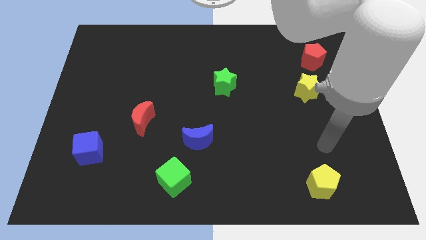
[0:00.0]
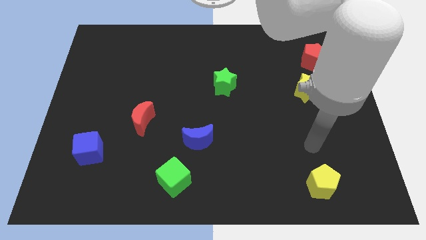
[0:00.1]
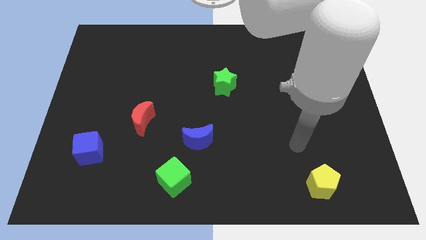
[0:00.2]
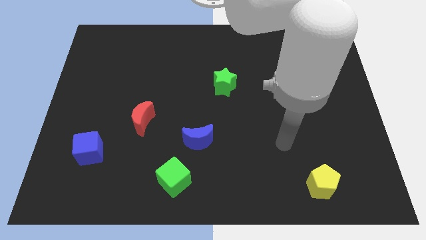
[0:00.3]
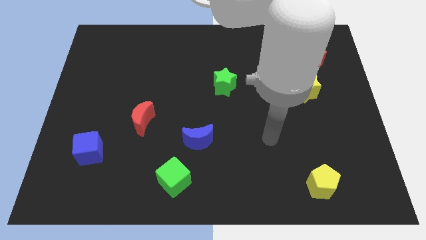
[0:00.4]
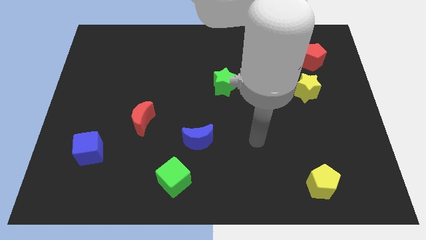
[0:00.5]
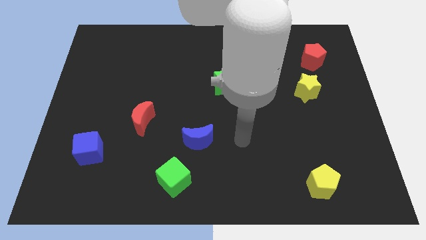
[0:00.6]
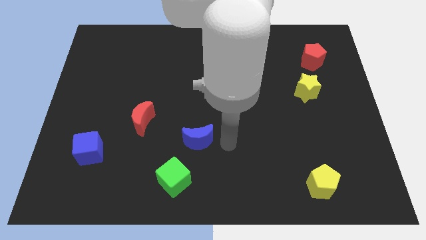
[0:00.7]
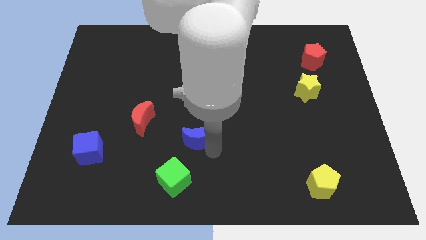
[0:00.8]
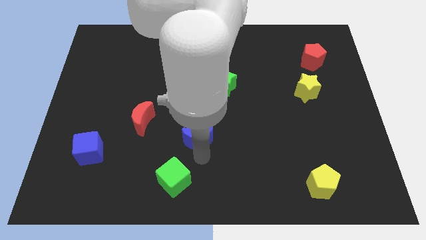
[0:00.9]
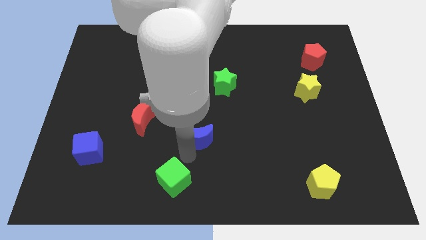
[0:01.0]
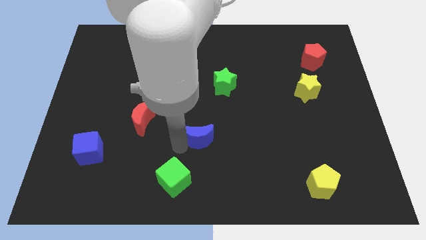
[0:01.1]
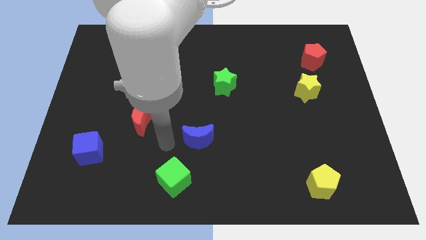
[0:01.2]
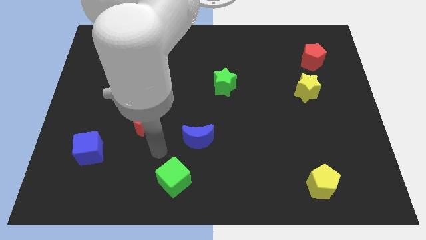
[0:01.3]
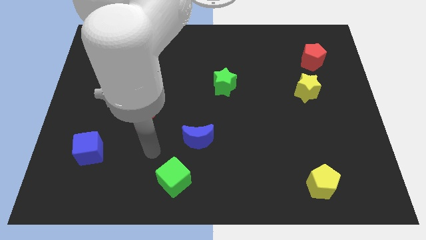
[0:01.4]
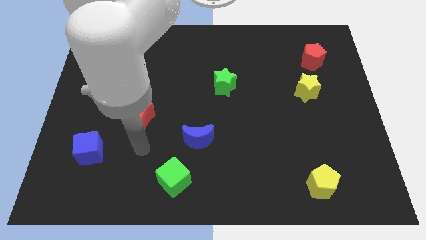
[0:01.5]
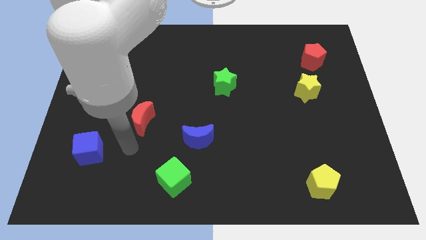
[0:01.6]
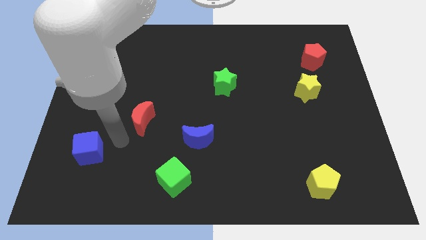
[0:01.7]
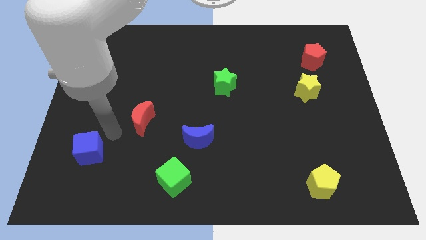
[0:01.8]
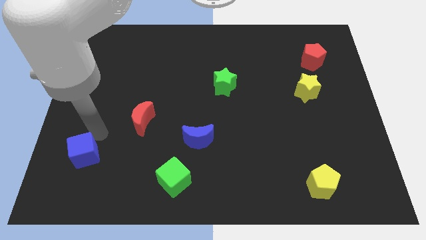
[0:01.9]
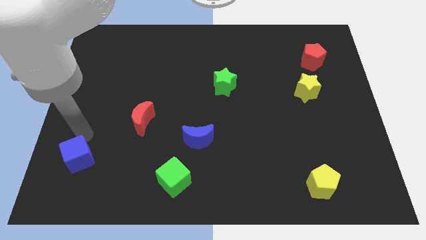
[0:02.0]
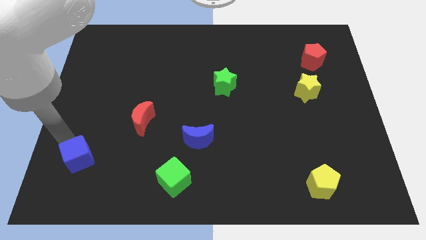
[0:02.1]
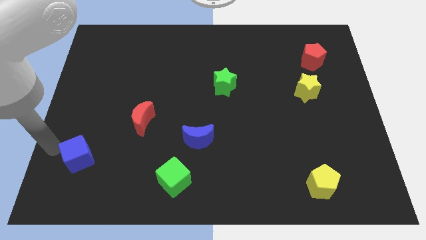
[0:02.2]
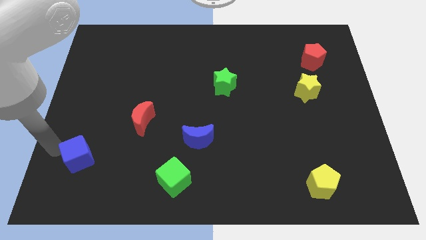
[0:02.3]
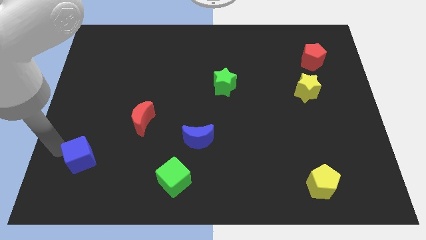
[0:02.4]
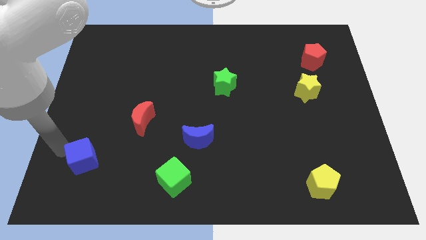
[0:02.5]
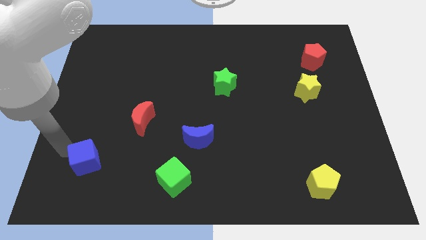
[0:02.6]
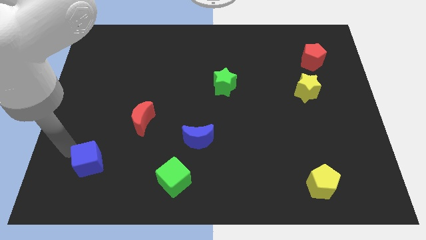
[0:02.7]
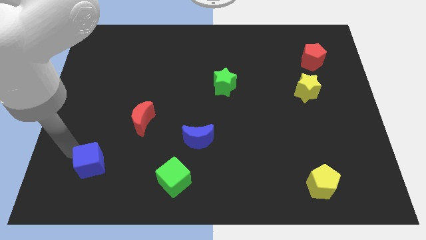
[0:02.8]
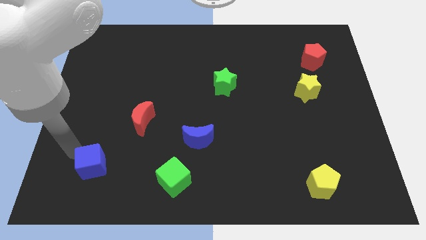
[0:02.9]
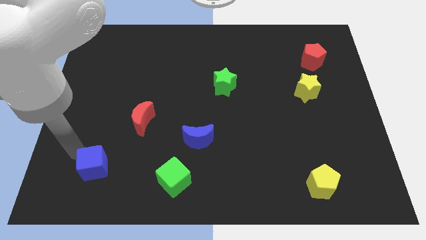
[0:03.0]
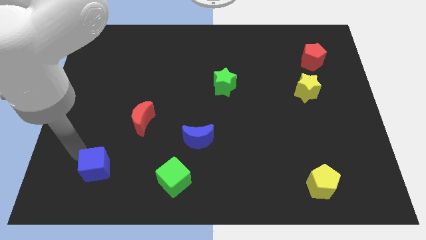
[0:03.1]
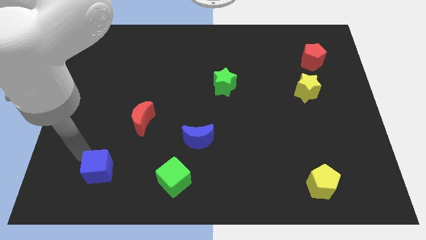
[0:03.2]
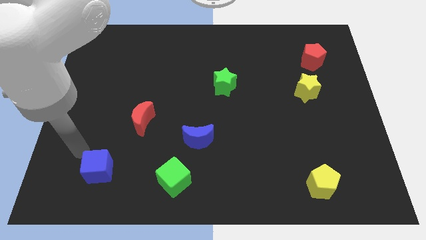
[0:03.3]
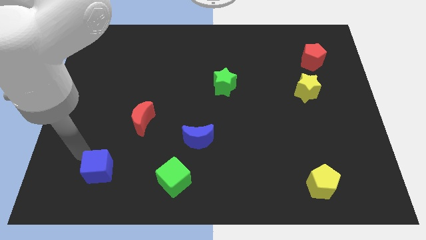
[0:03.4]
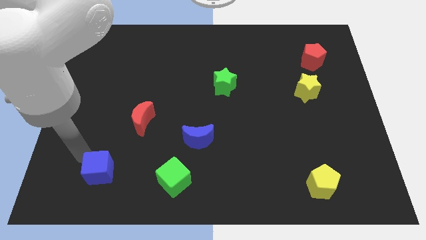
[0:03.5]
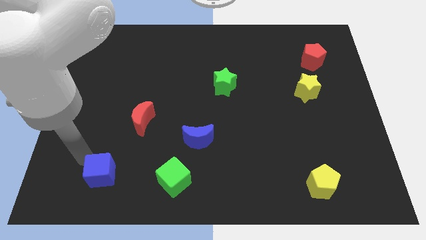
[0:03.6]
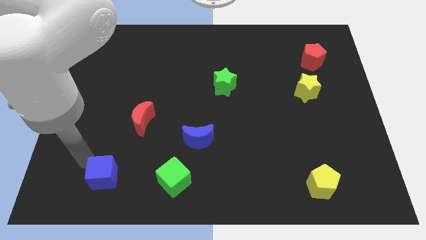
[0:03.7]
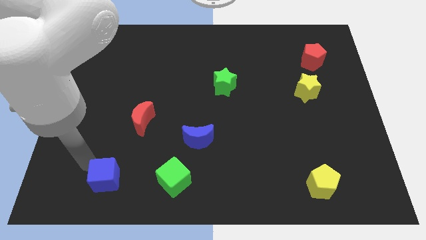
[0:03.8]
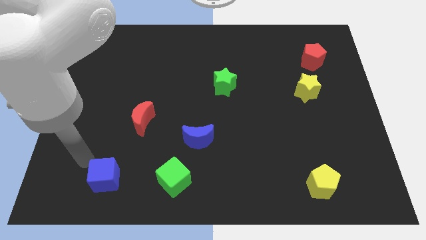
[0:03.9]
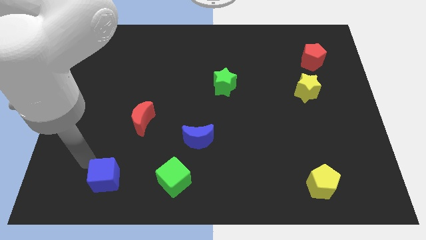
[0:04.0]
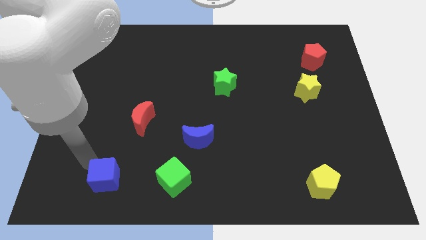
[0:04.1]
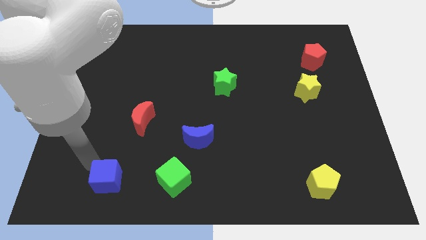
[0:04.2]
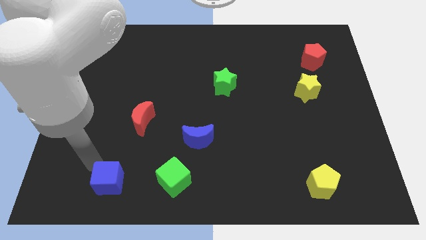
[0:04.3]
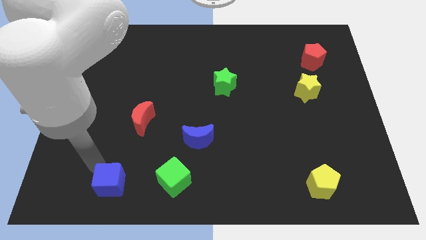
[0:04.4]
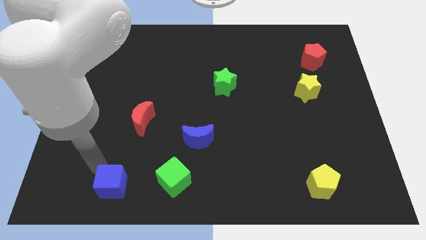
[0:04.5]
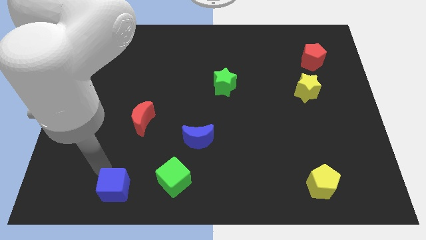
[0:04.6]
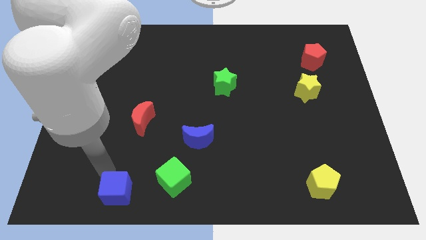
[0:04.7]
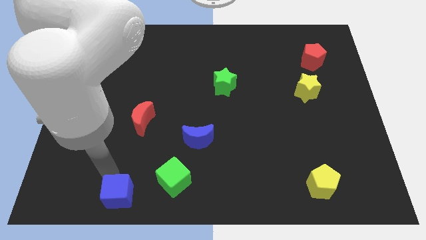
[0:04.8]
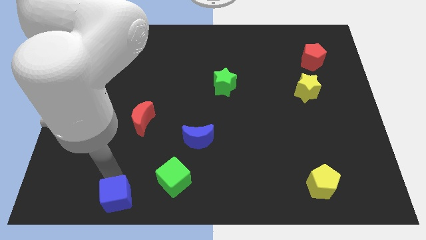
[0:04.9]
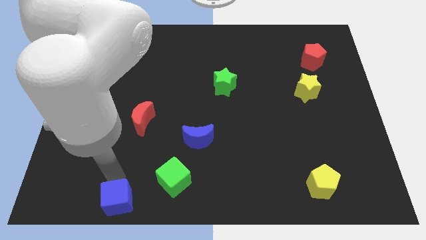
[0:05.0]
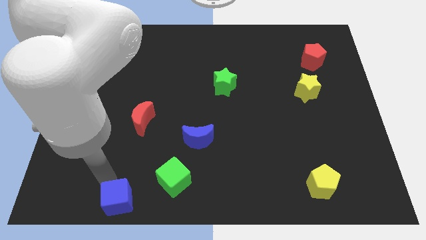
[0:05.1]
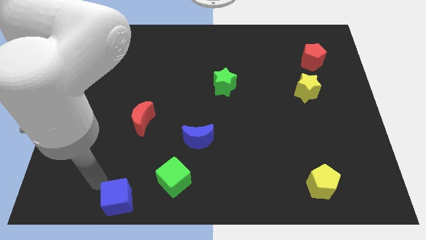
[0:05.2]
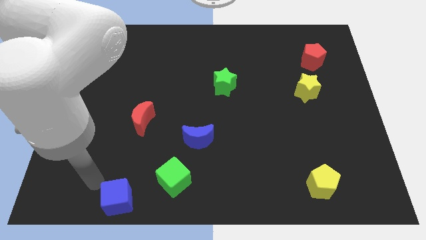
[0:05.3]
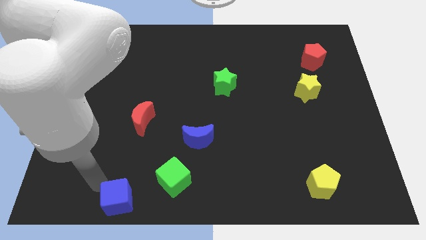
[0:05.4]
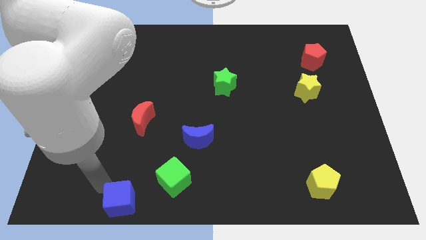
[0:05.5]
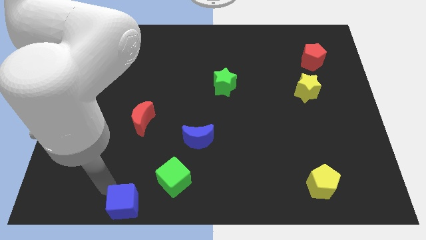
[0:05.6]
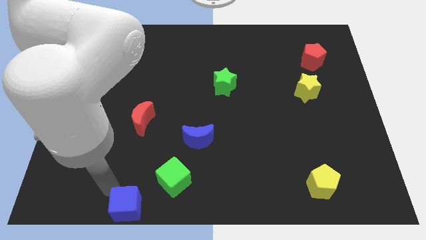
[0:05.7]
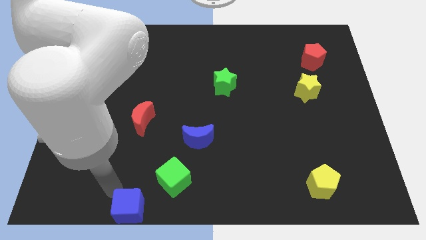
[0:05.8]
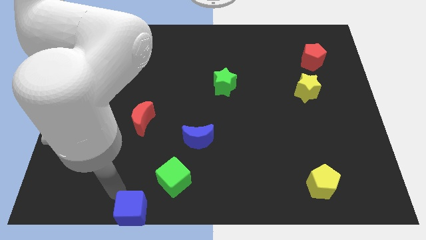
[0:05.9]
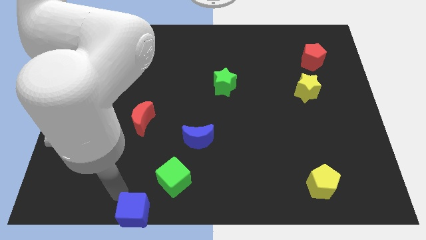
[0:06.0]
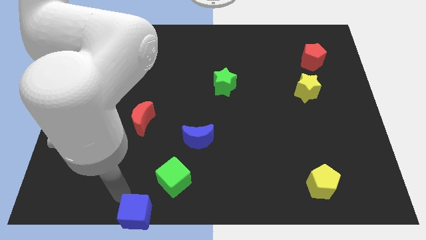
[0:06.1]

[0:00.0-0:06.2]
slide the blue cube to the bottom side

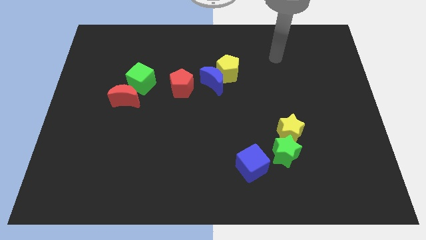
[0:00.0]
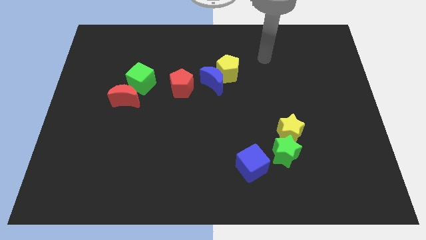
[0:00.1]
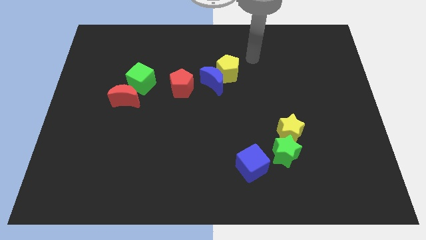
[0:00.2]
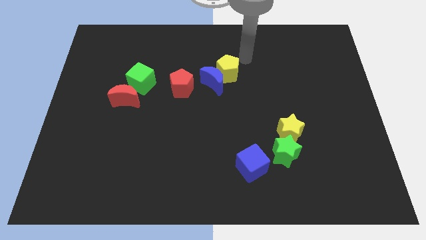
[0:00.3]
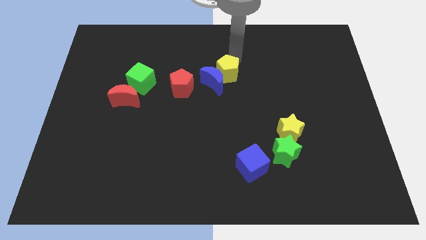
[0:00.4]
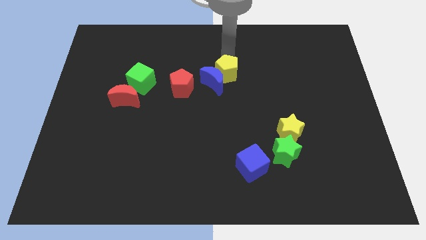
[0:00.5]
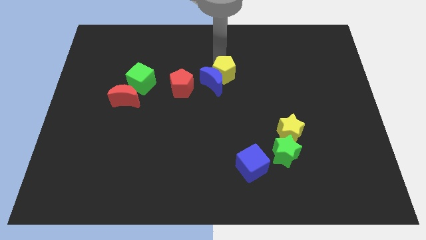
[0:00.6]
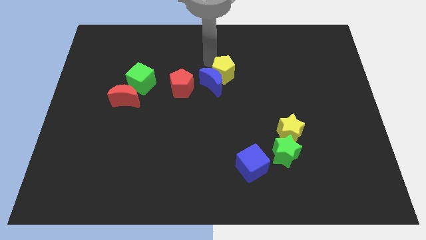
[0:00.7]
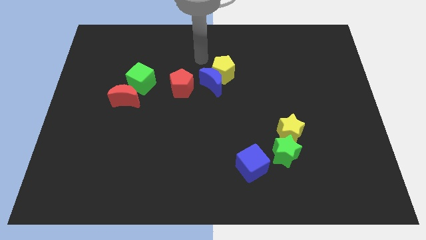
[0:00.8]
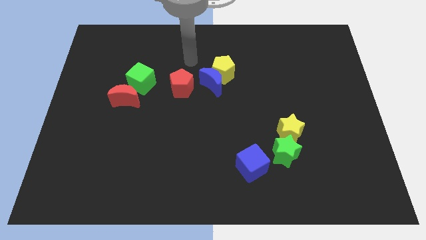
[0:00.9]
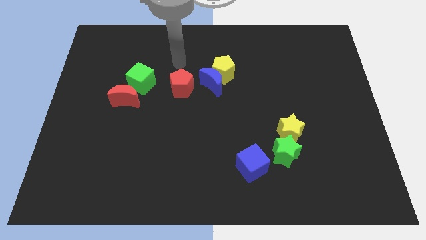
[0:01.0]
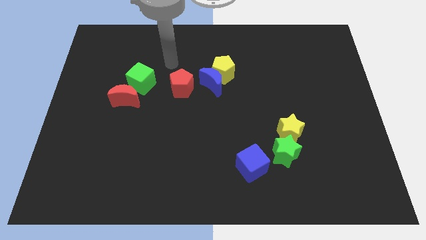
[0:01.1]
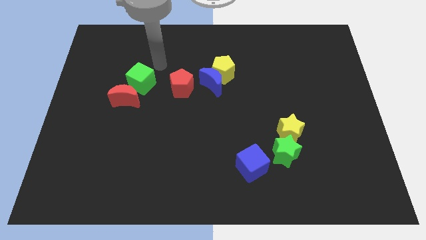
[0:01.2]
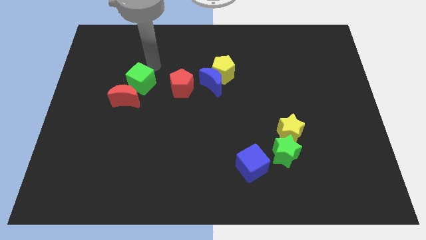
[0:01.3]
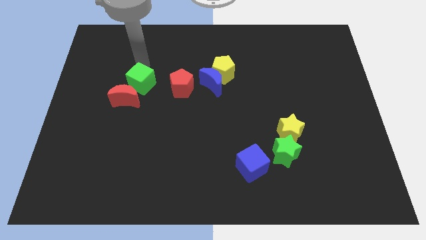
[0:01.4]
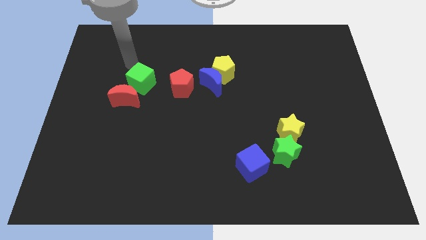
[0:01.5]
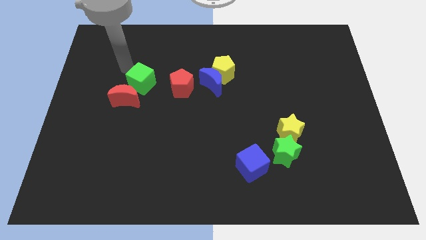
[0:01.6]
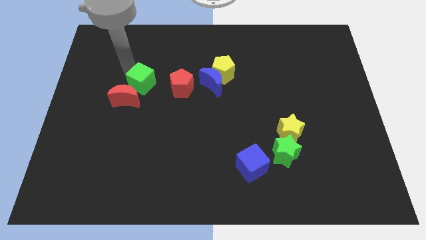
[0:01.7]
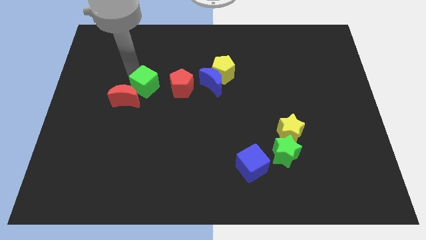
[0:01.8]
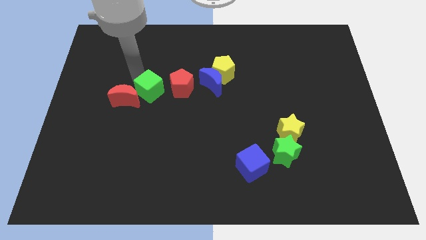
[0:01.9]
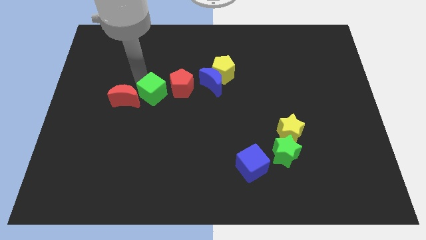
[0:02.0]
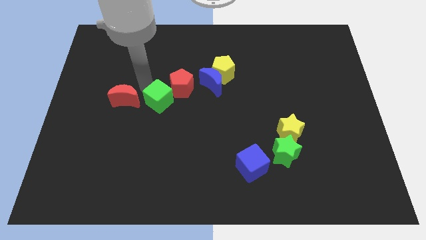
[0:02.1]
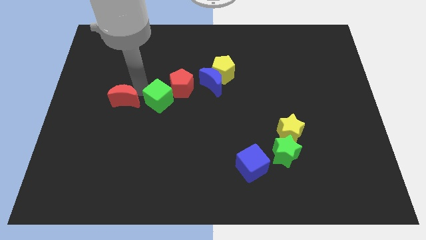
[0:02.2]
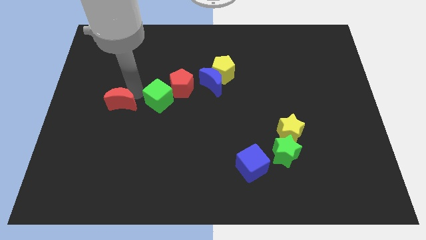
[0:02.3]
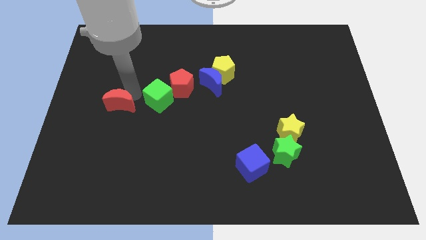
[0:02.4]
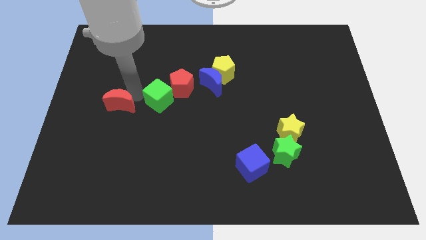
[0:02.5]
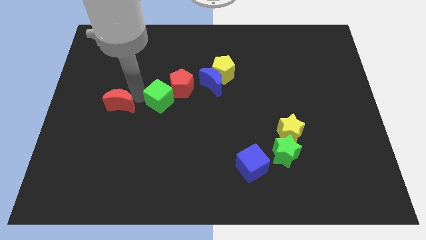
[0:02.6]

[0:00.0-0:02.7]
put the green cube to the middle of the board
